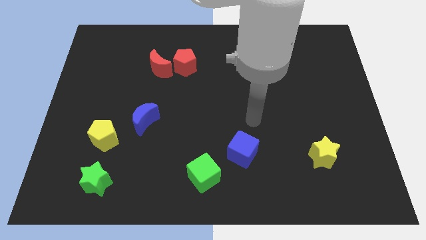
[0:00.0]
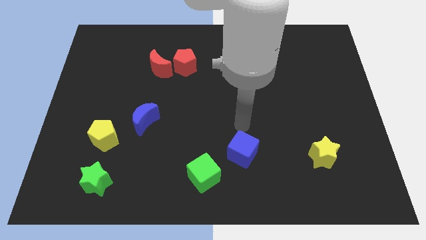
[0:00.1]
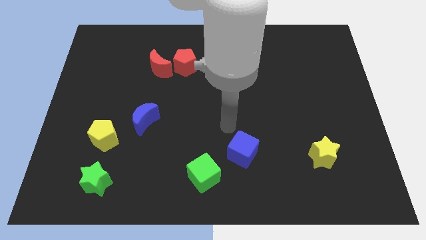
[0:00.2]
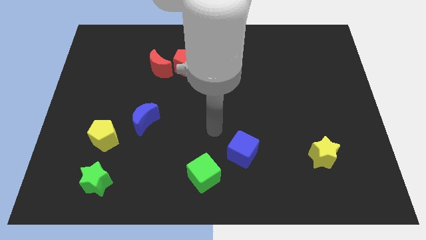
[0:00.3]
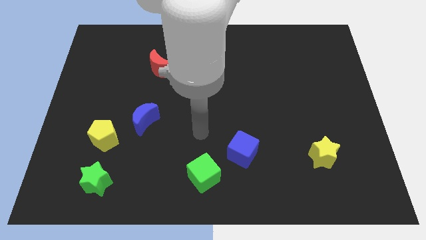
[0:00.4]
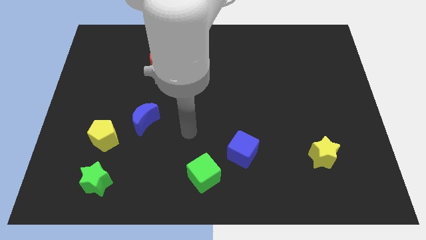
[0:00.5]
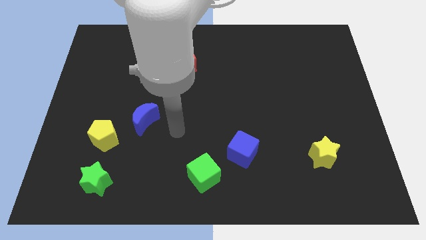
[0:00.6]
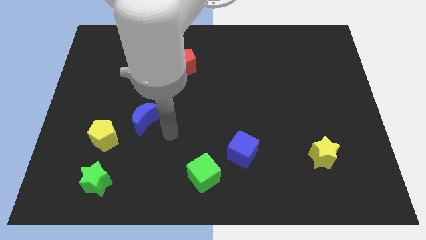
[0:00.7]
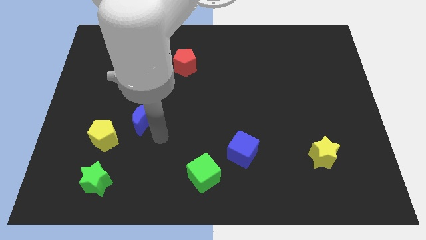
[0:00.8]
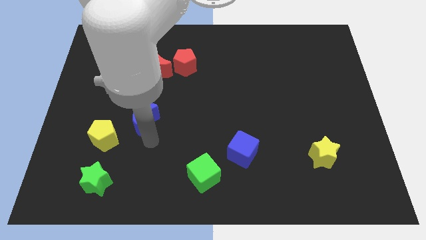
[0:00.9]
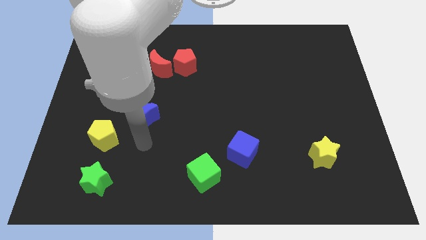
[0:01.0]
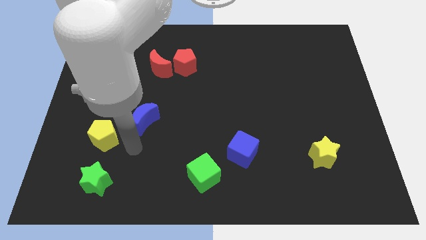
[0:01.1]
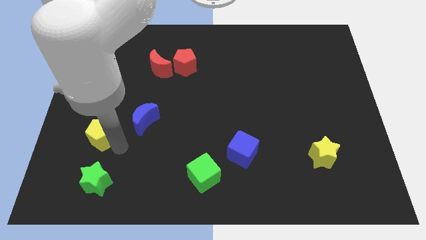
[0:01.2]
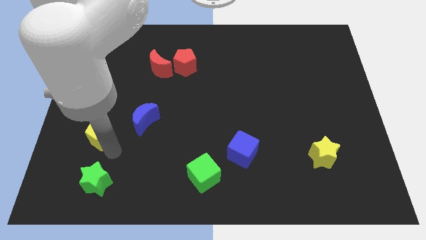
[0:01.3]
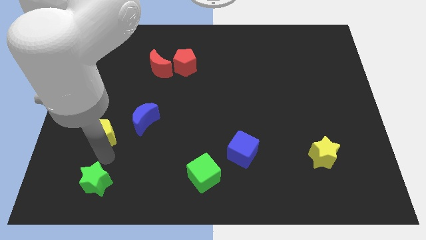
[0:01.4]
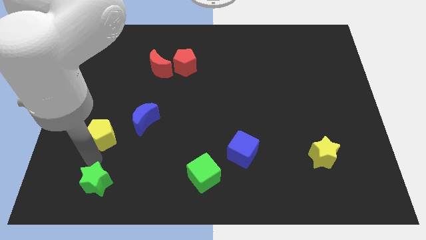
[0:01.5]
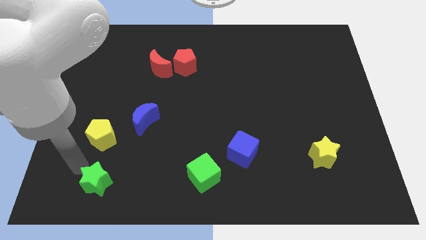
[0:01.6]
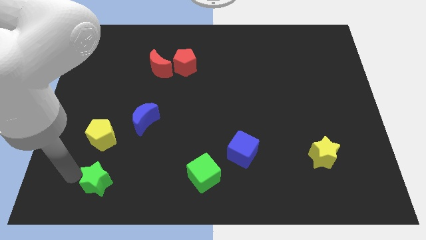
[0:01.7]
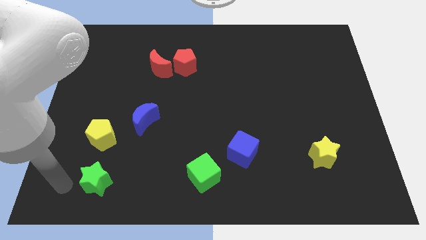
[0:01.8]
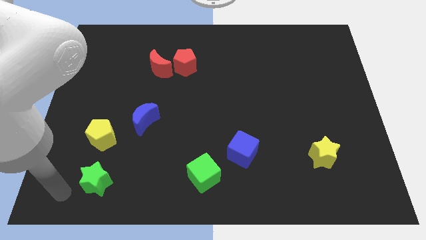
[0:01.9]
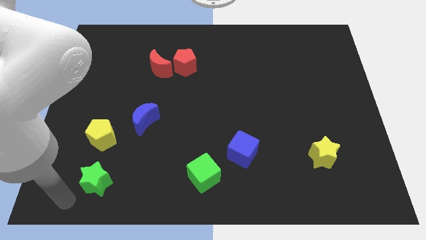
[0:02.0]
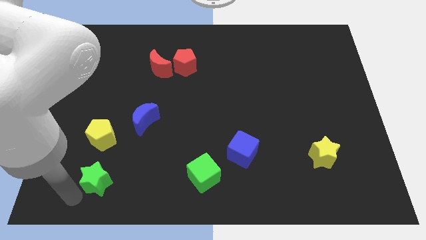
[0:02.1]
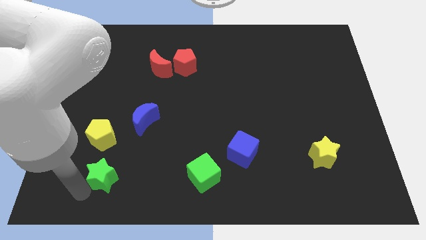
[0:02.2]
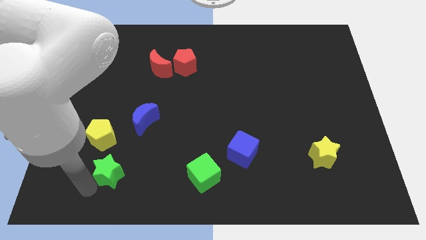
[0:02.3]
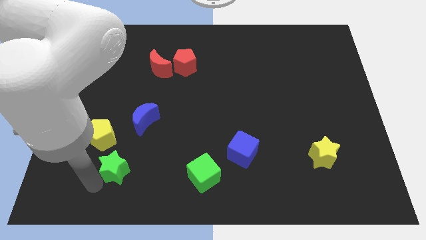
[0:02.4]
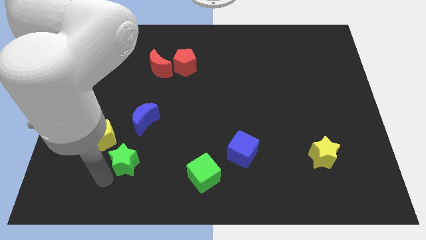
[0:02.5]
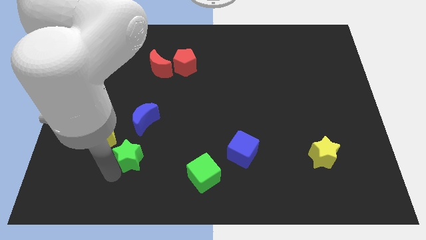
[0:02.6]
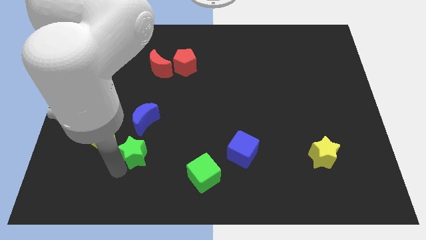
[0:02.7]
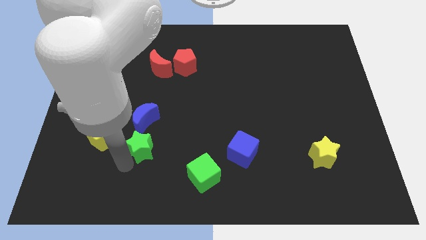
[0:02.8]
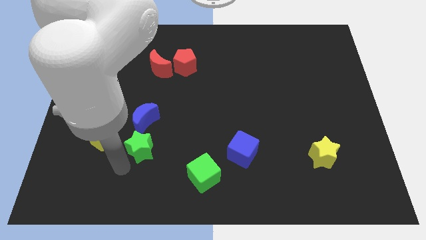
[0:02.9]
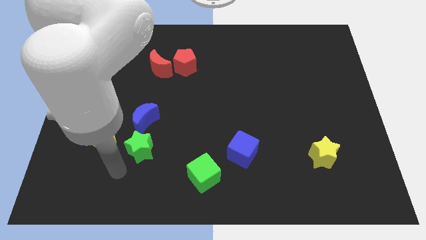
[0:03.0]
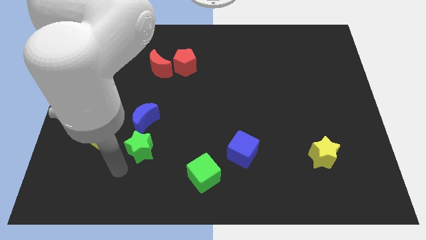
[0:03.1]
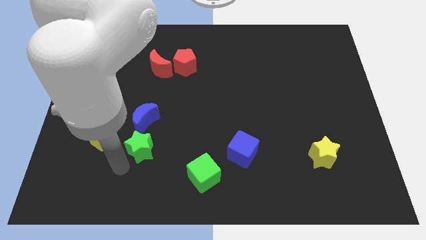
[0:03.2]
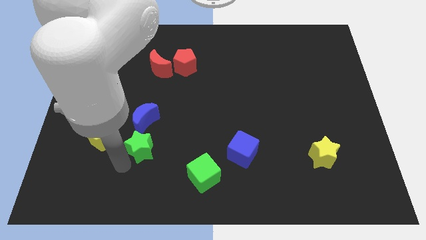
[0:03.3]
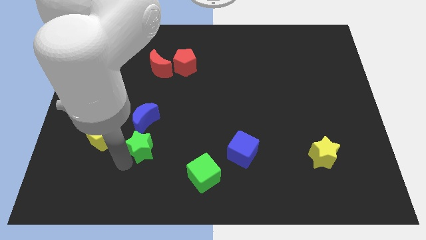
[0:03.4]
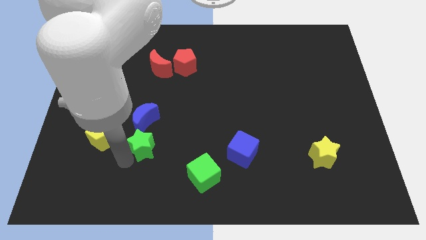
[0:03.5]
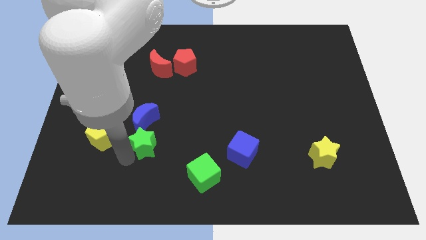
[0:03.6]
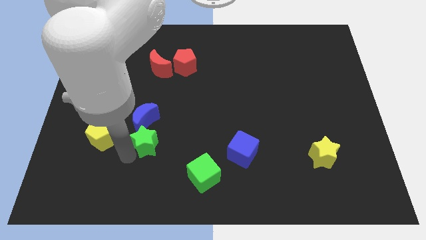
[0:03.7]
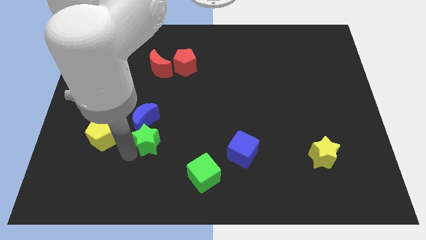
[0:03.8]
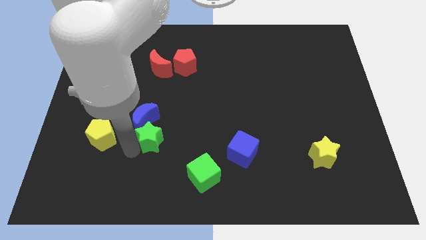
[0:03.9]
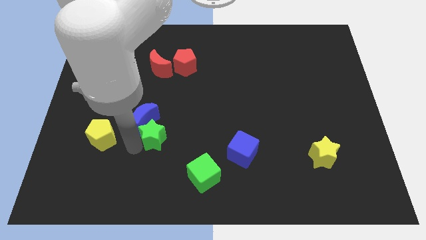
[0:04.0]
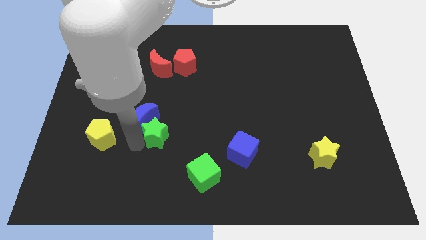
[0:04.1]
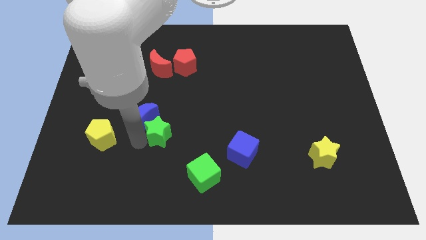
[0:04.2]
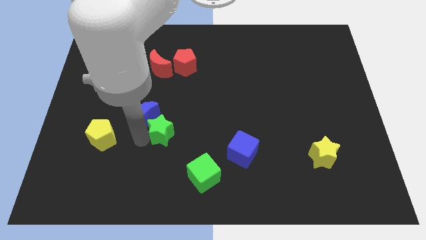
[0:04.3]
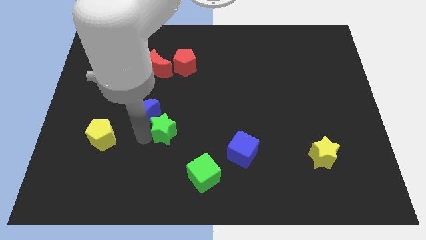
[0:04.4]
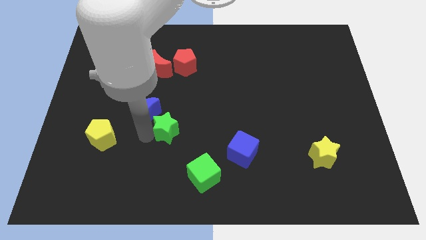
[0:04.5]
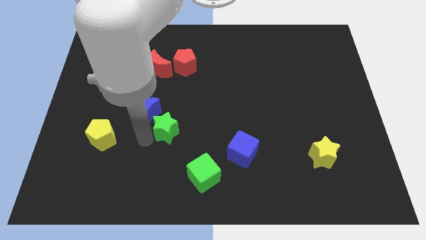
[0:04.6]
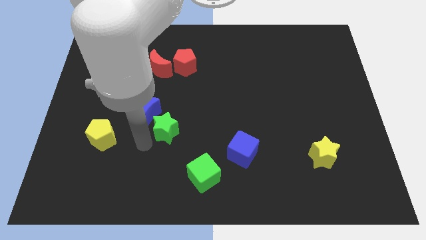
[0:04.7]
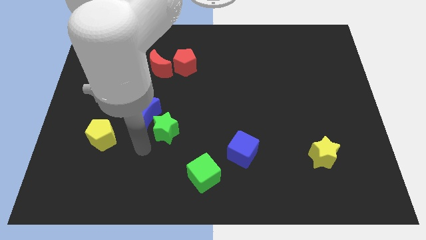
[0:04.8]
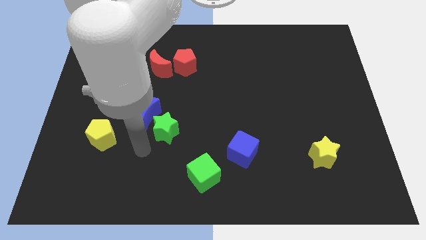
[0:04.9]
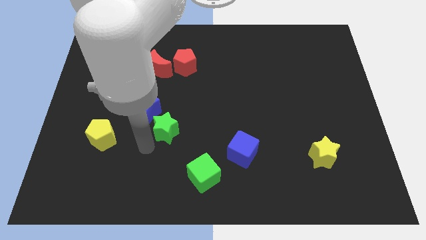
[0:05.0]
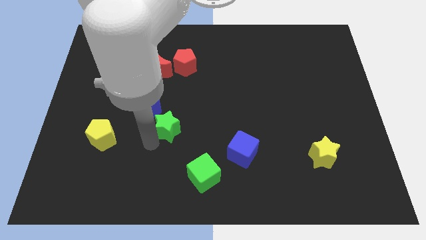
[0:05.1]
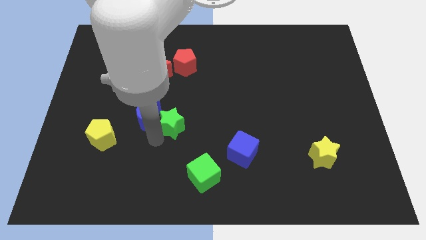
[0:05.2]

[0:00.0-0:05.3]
slide the green star to the middle of the board
